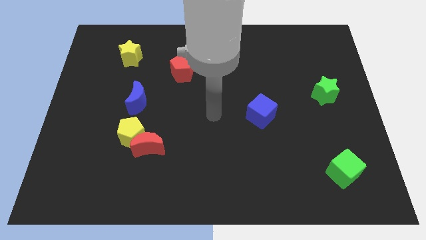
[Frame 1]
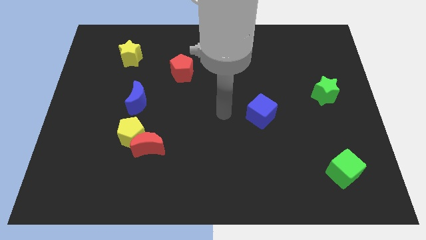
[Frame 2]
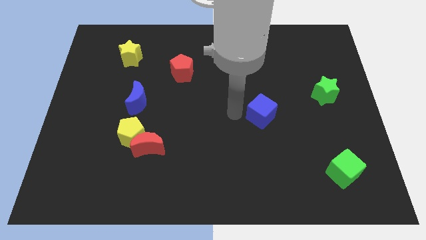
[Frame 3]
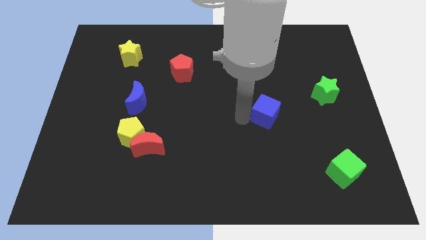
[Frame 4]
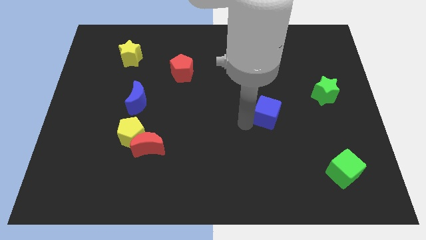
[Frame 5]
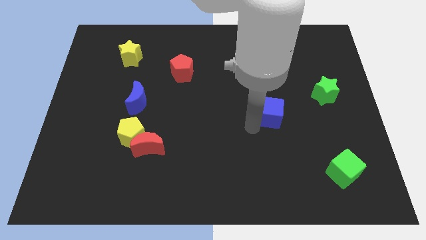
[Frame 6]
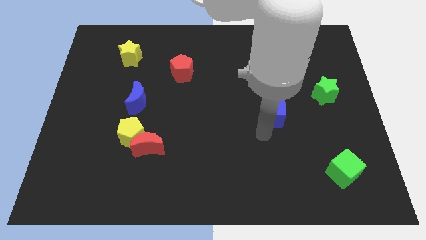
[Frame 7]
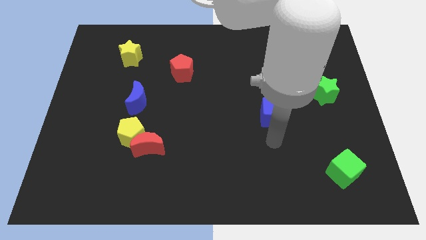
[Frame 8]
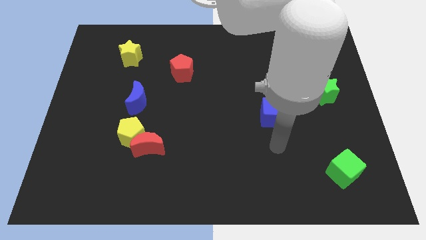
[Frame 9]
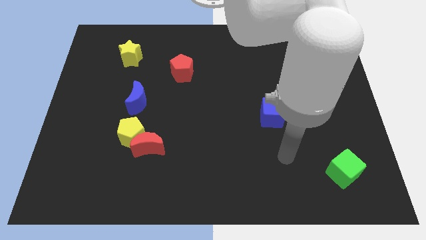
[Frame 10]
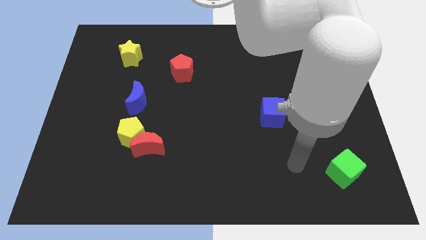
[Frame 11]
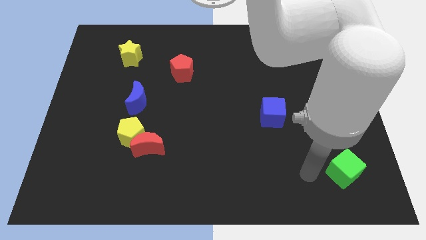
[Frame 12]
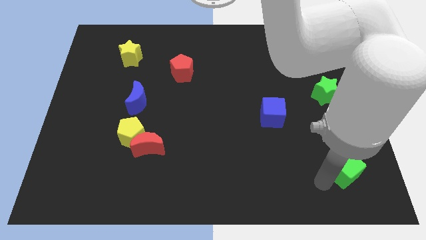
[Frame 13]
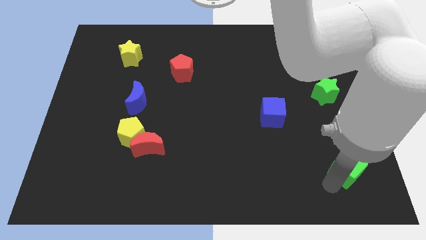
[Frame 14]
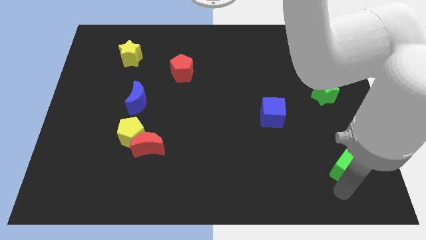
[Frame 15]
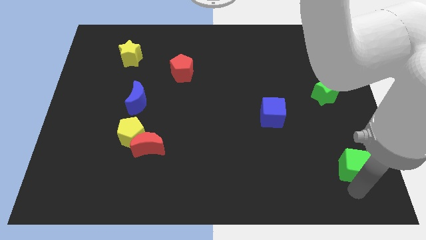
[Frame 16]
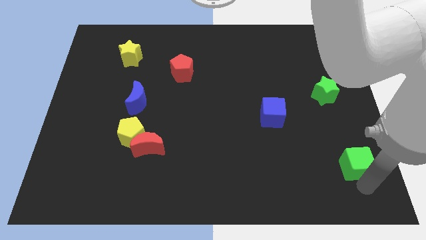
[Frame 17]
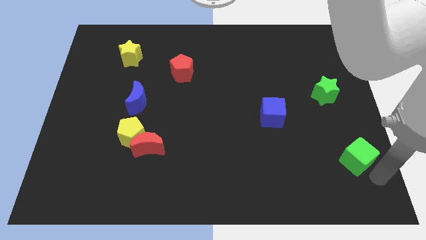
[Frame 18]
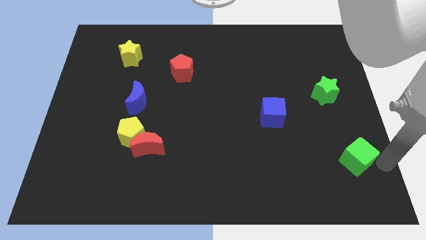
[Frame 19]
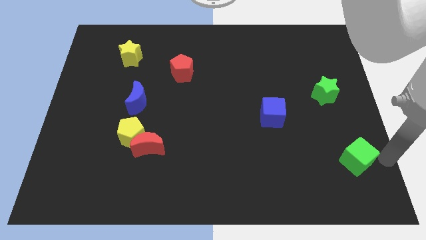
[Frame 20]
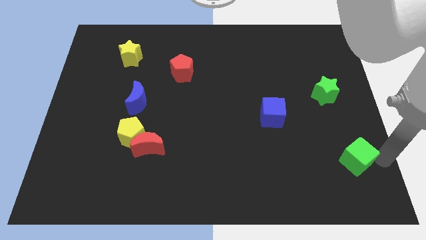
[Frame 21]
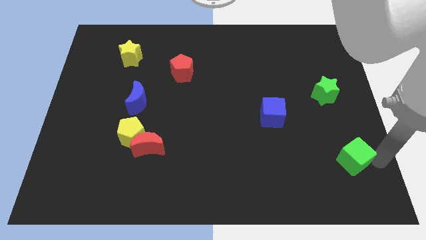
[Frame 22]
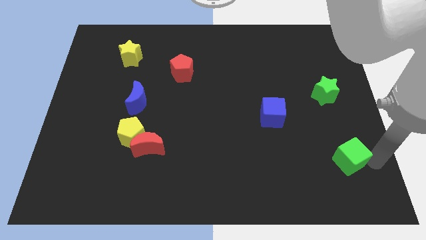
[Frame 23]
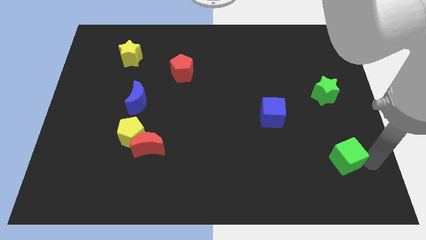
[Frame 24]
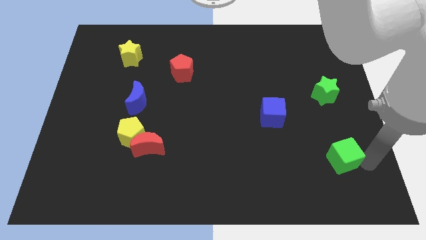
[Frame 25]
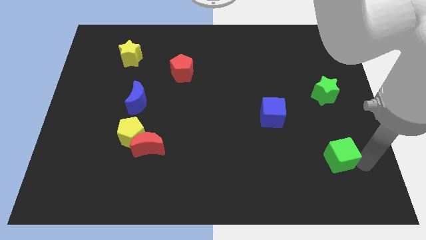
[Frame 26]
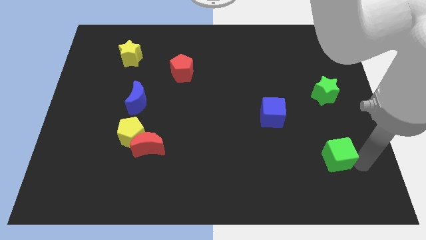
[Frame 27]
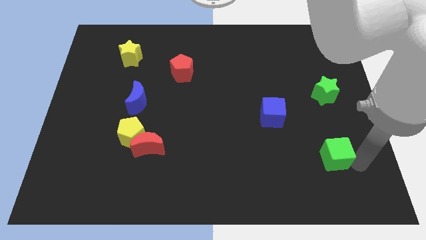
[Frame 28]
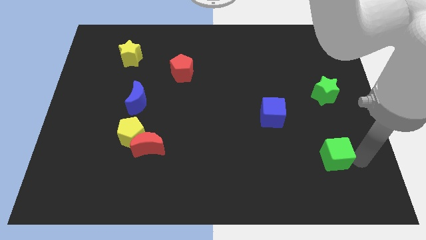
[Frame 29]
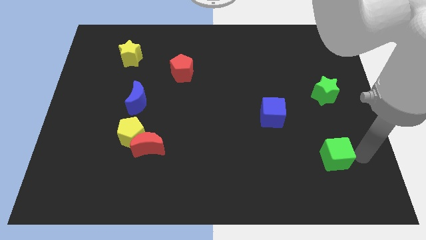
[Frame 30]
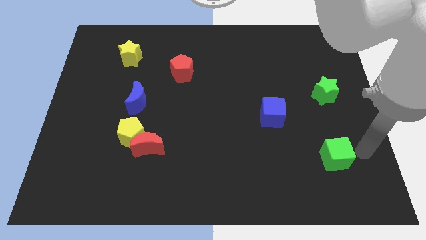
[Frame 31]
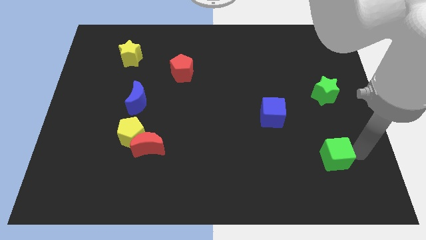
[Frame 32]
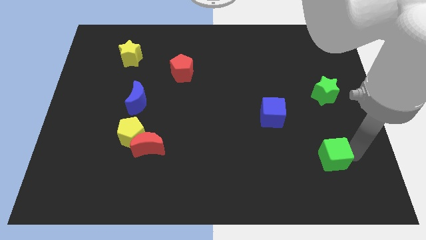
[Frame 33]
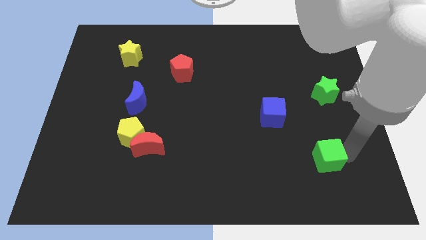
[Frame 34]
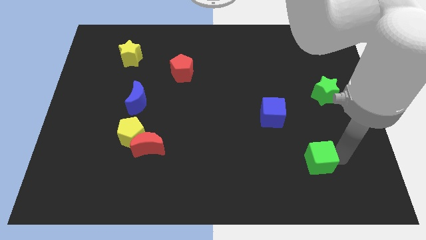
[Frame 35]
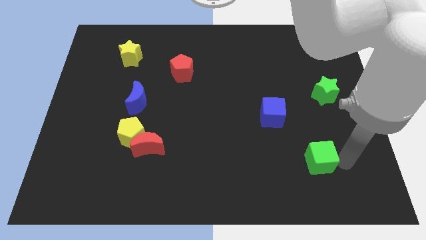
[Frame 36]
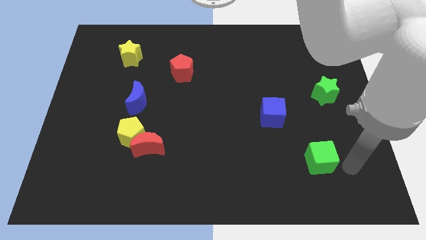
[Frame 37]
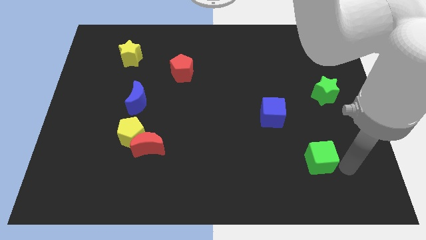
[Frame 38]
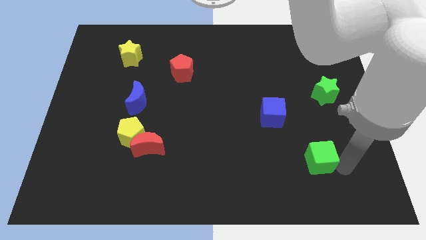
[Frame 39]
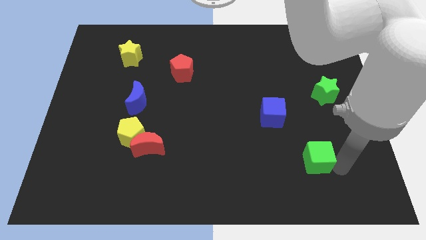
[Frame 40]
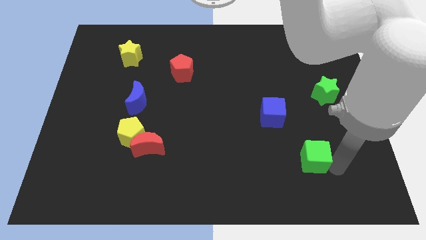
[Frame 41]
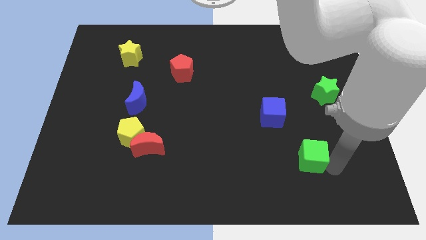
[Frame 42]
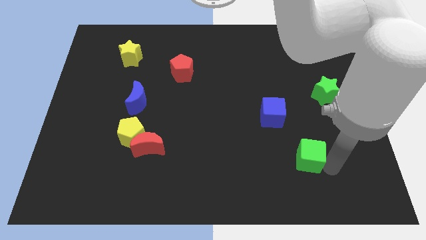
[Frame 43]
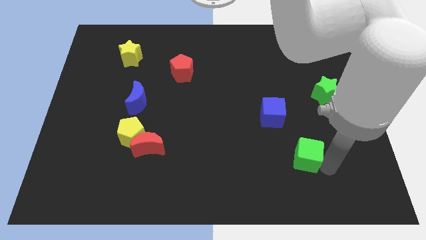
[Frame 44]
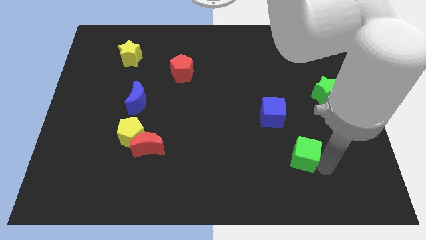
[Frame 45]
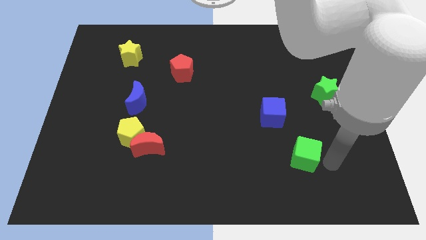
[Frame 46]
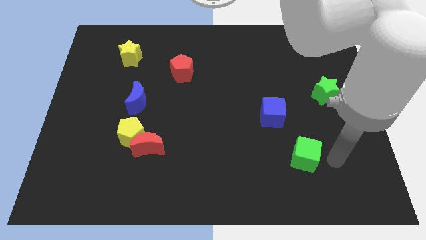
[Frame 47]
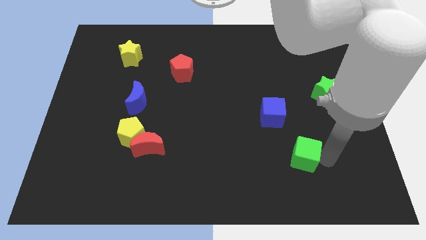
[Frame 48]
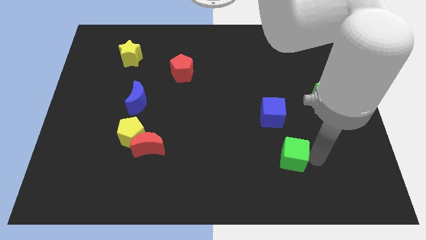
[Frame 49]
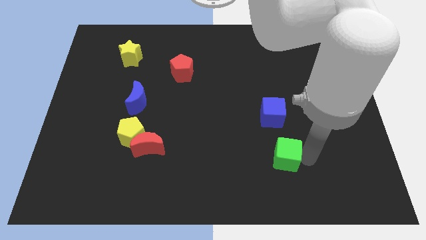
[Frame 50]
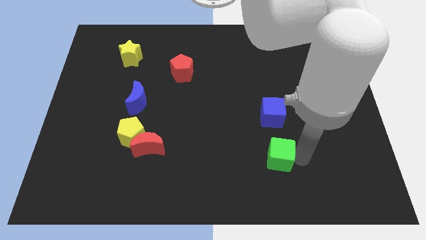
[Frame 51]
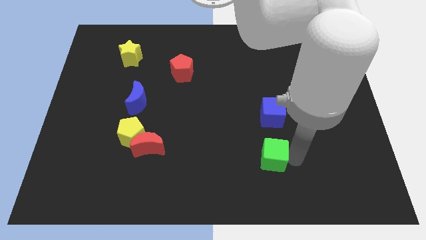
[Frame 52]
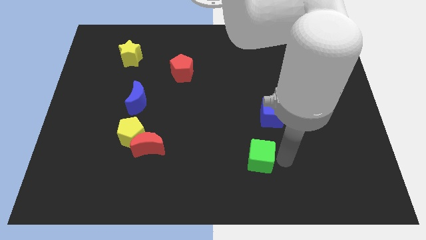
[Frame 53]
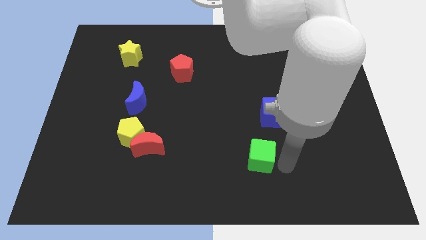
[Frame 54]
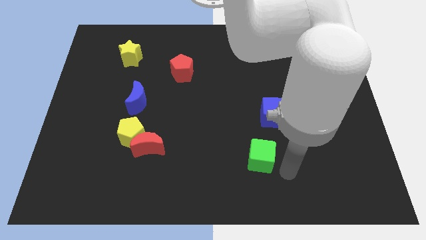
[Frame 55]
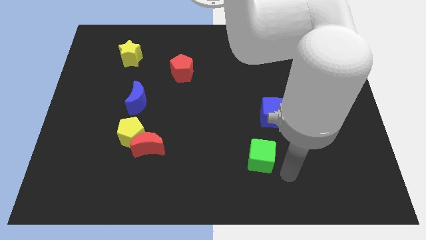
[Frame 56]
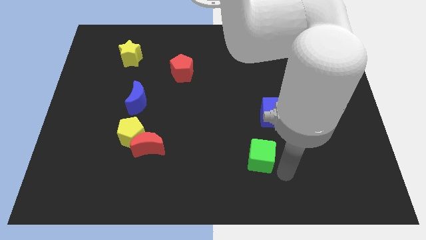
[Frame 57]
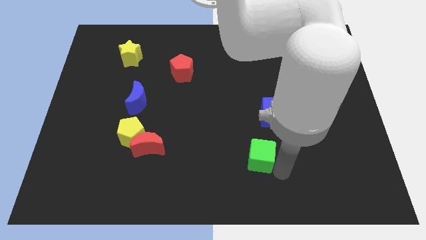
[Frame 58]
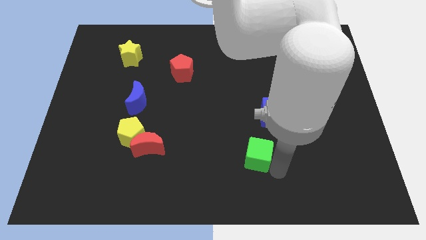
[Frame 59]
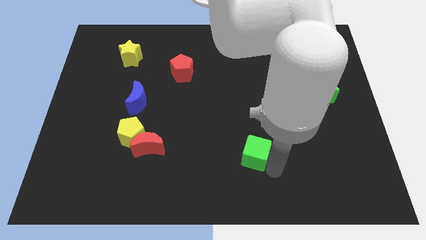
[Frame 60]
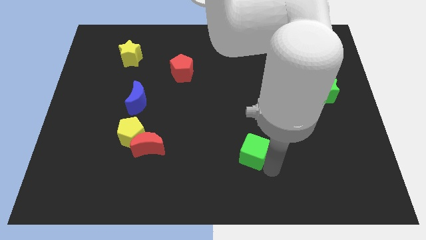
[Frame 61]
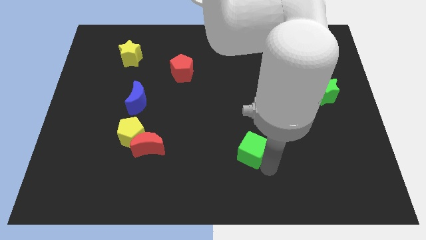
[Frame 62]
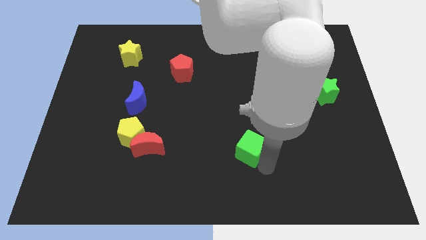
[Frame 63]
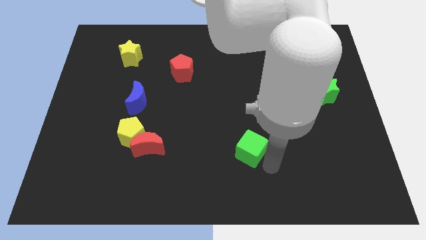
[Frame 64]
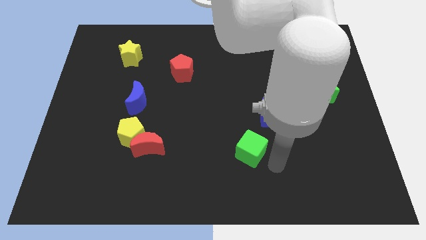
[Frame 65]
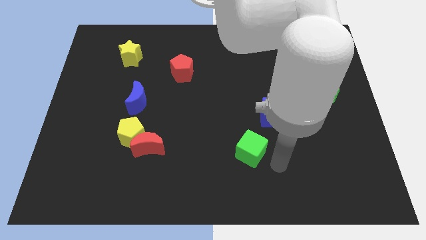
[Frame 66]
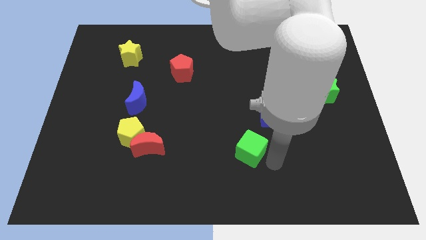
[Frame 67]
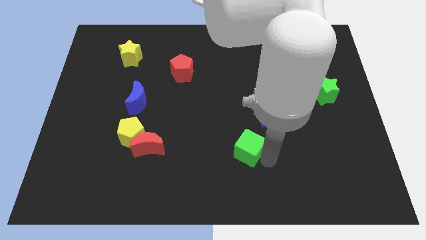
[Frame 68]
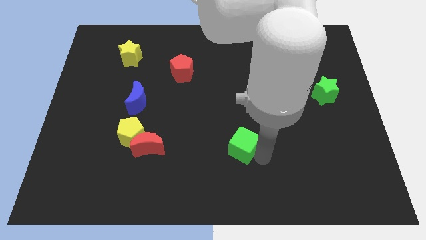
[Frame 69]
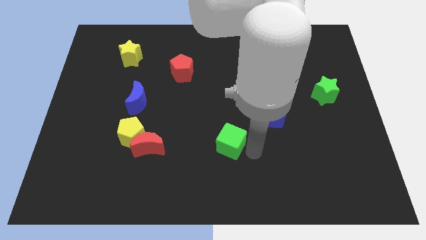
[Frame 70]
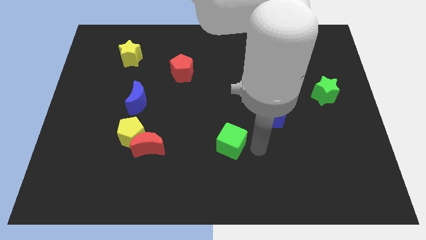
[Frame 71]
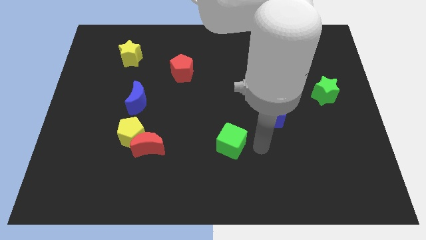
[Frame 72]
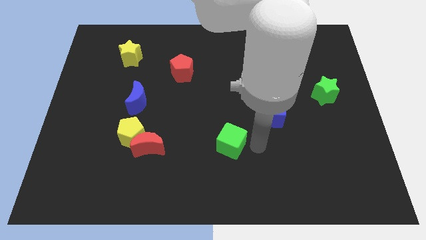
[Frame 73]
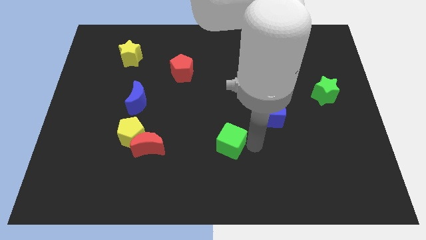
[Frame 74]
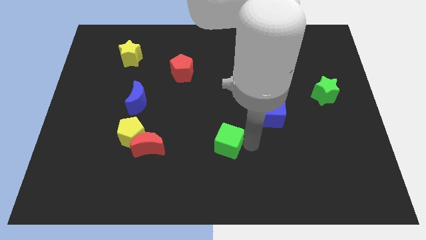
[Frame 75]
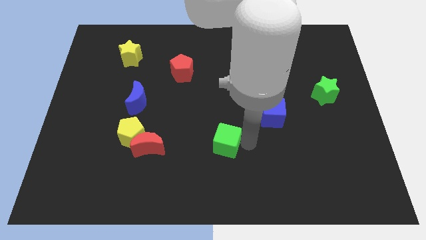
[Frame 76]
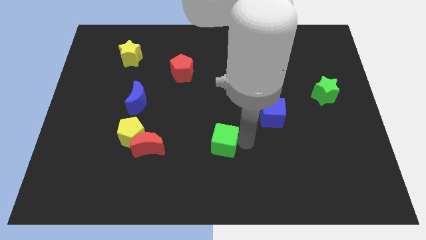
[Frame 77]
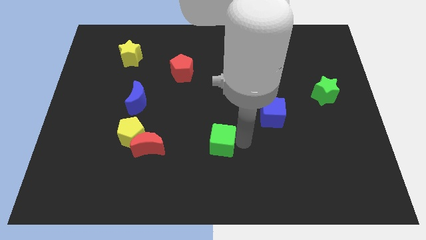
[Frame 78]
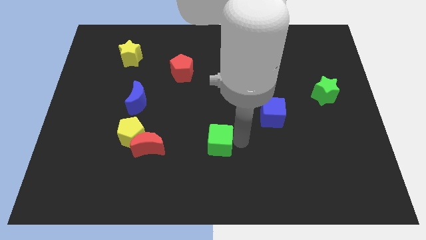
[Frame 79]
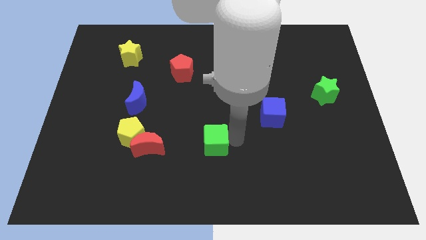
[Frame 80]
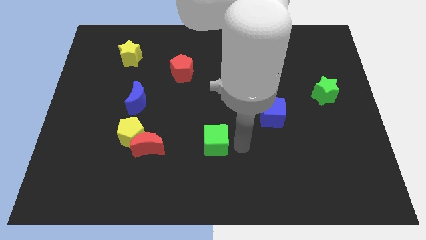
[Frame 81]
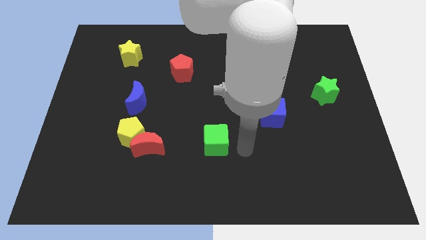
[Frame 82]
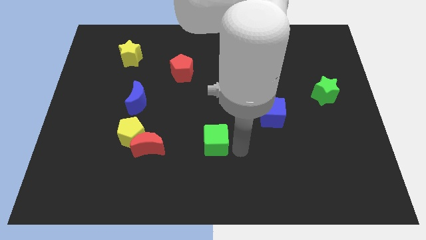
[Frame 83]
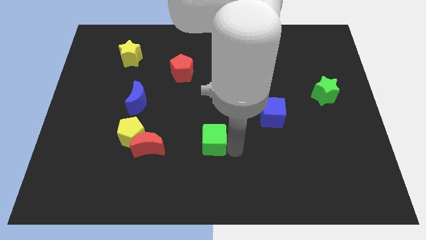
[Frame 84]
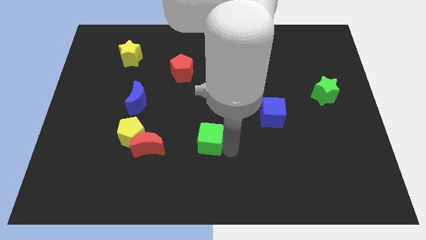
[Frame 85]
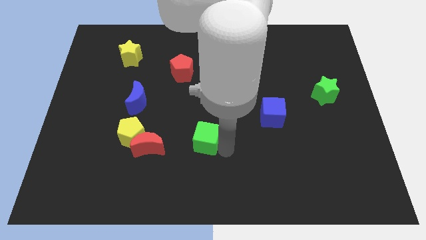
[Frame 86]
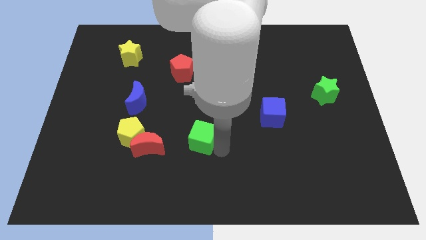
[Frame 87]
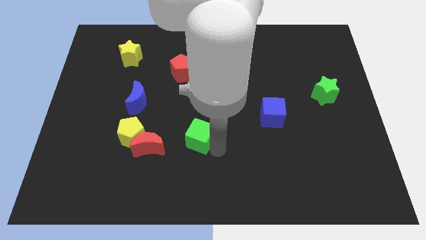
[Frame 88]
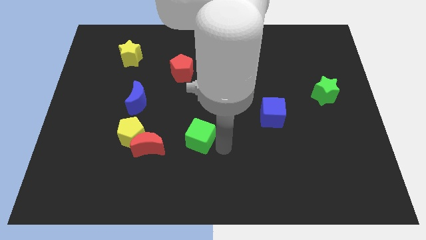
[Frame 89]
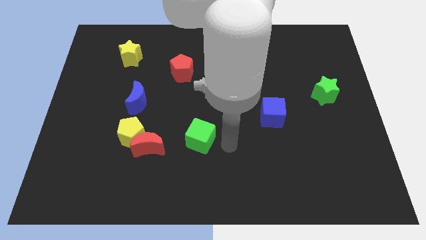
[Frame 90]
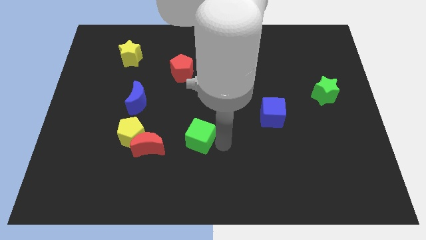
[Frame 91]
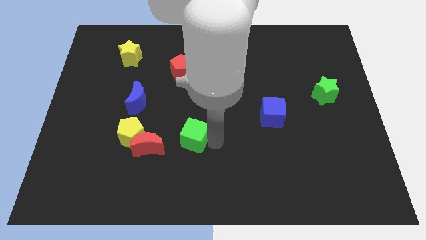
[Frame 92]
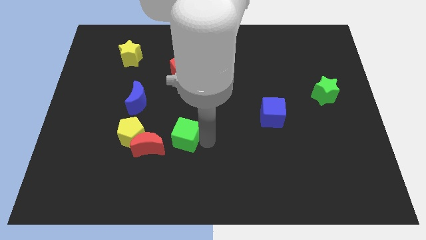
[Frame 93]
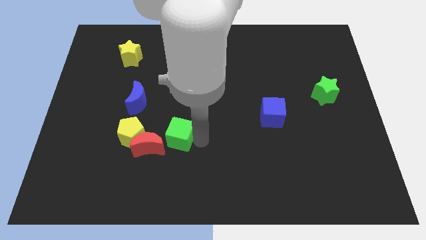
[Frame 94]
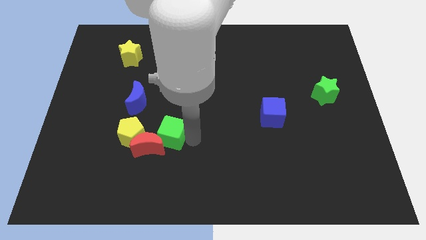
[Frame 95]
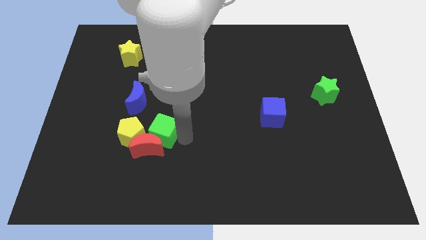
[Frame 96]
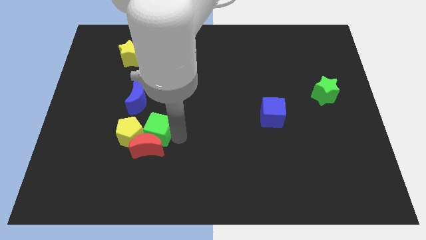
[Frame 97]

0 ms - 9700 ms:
move the green cube next to the yellow pentagon
